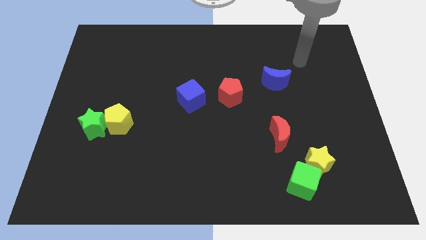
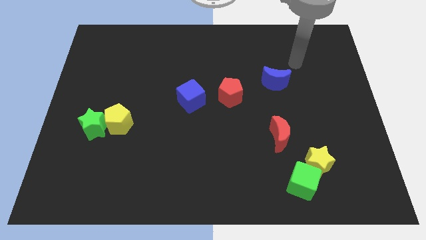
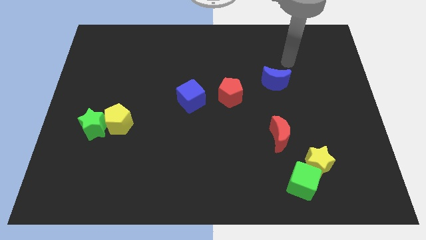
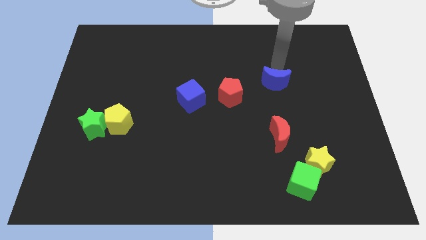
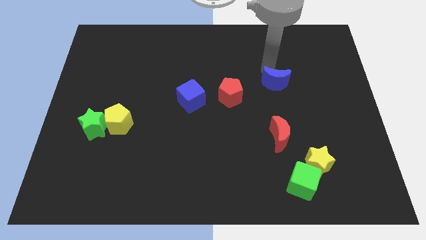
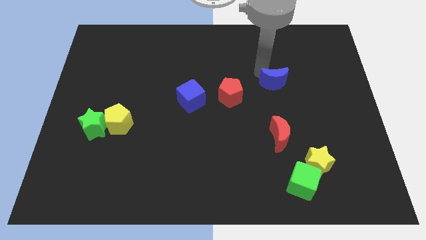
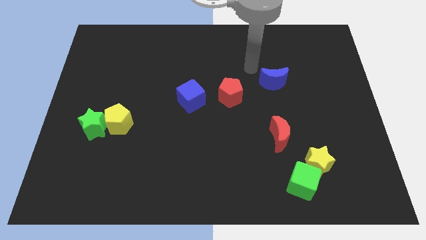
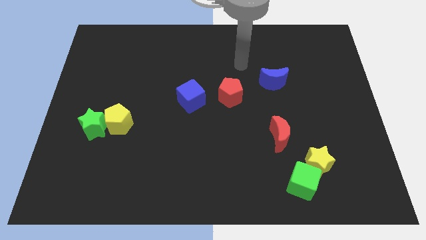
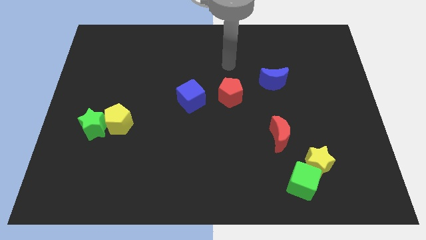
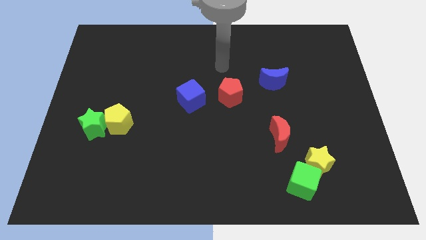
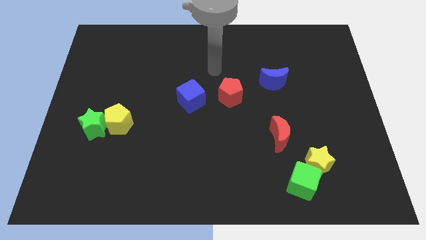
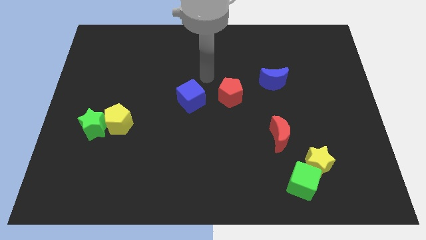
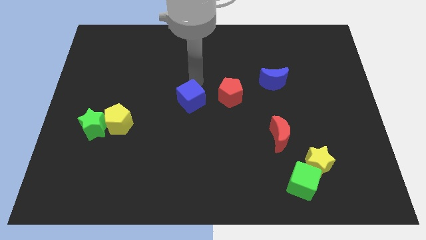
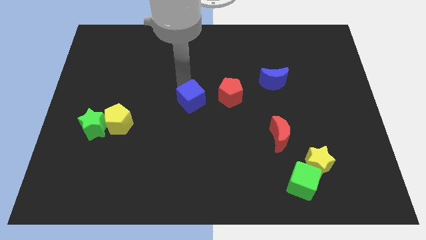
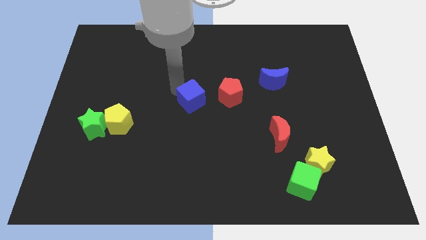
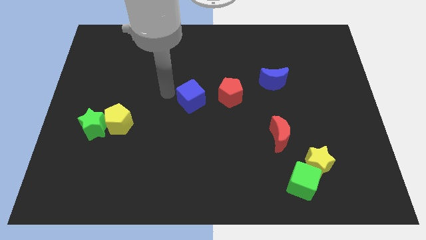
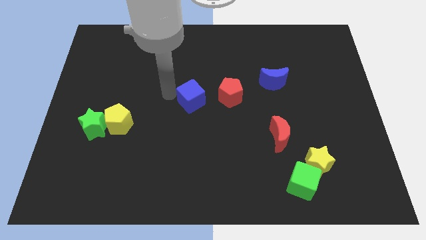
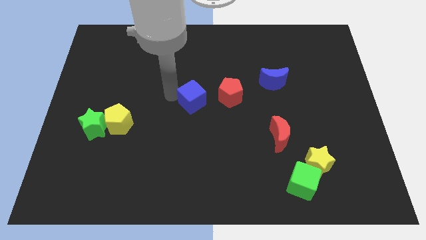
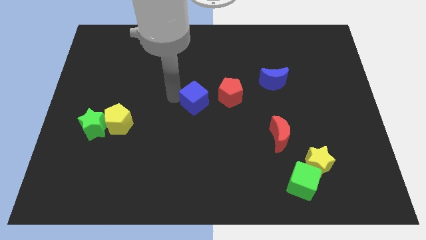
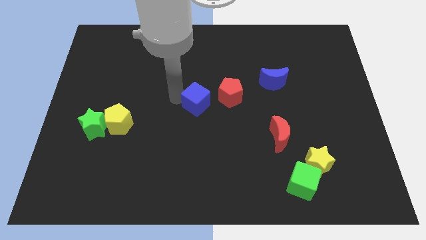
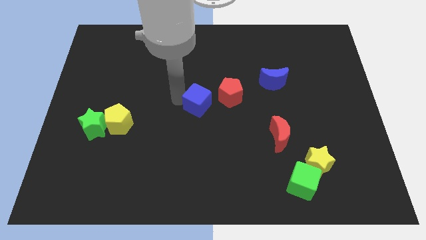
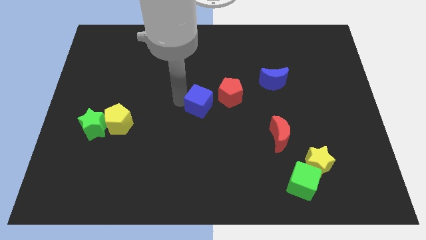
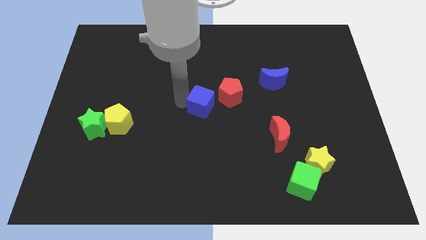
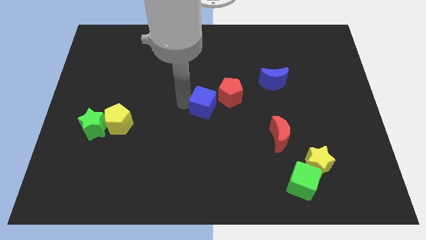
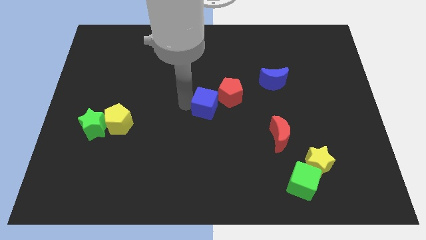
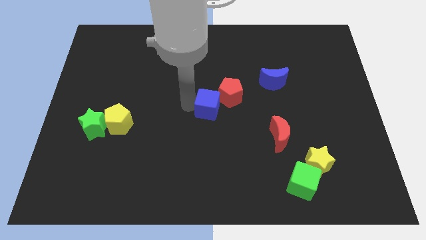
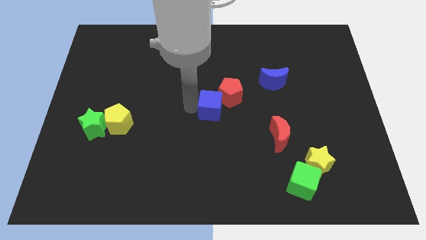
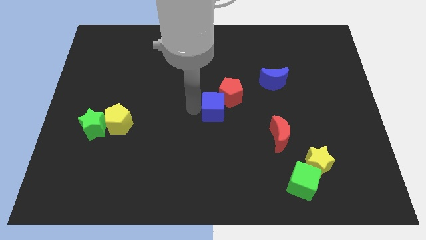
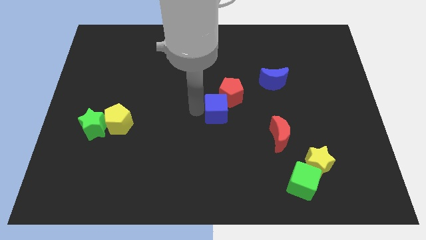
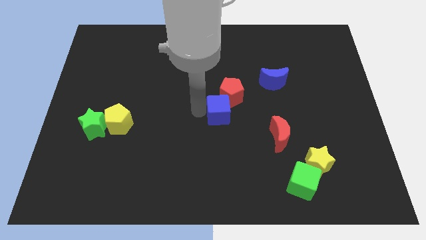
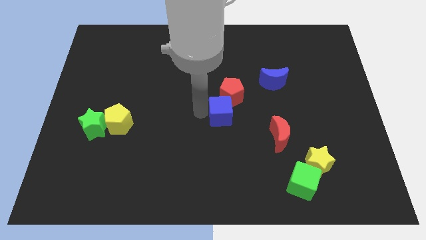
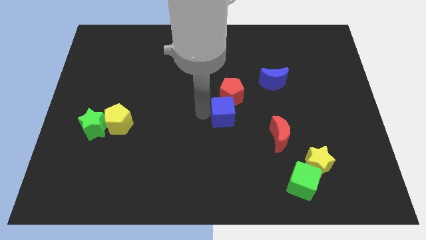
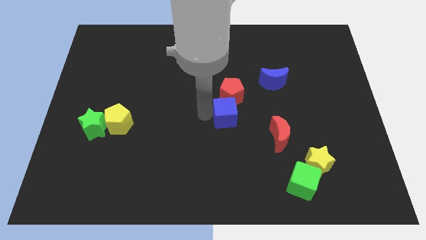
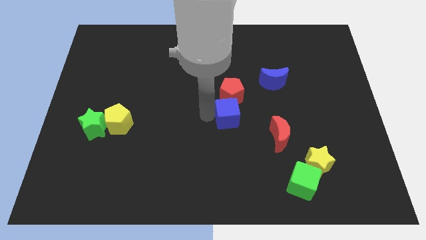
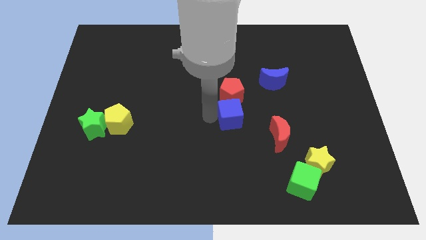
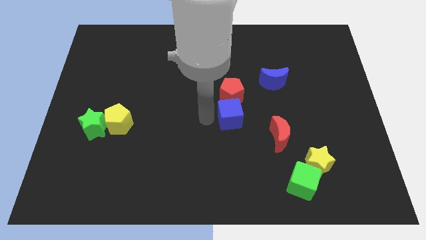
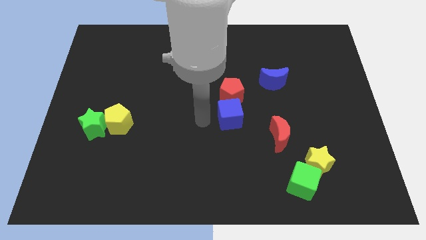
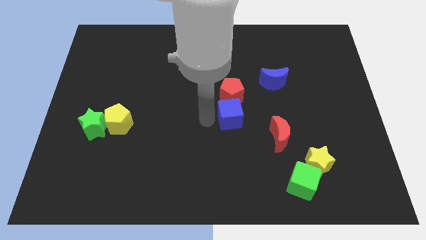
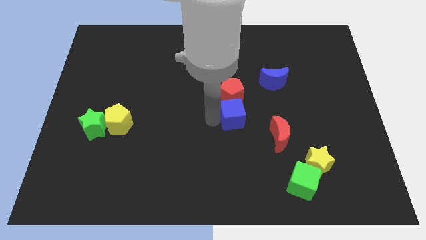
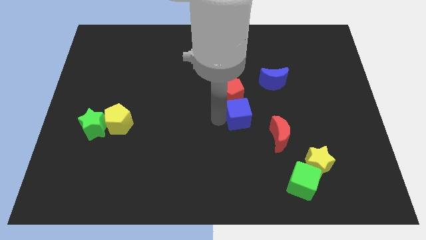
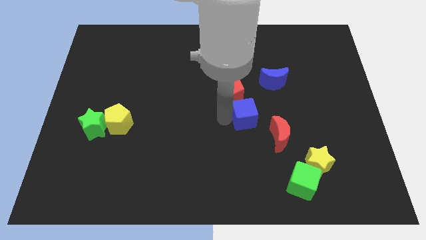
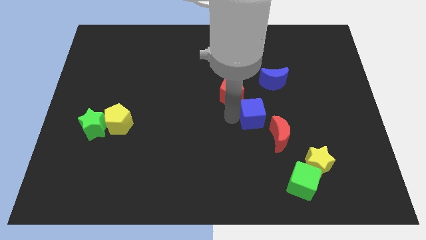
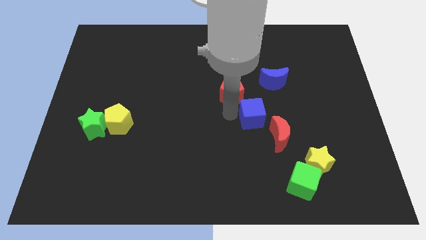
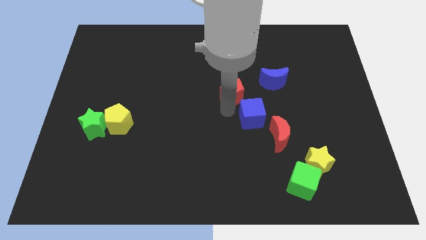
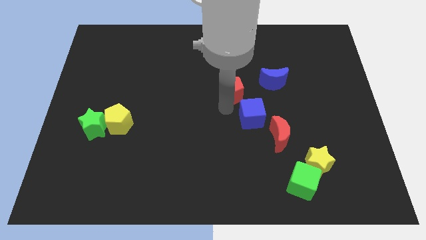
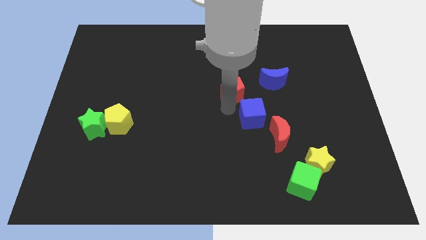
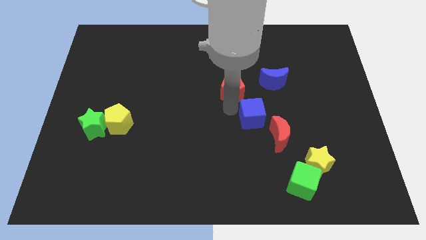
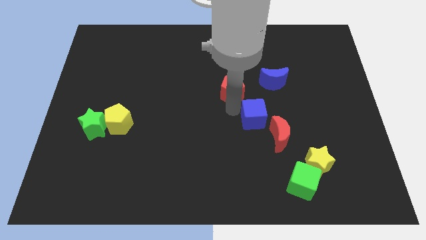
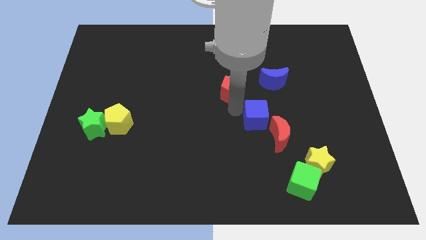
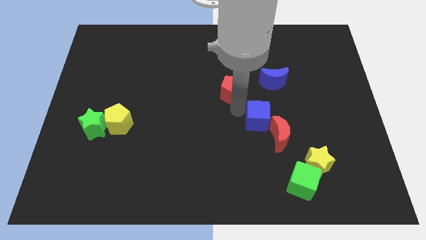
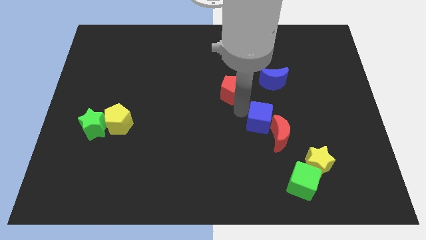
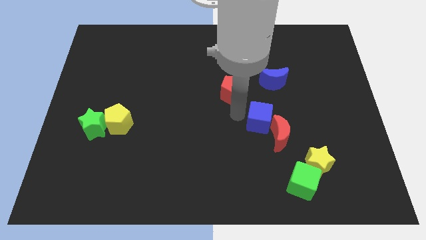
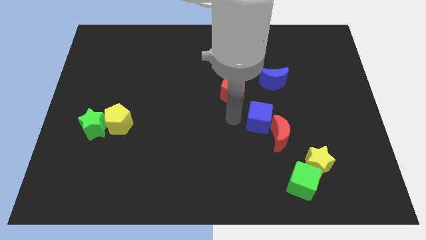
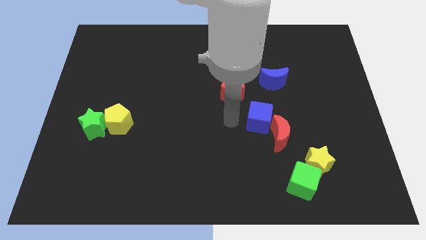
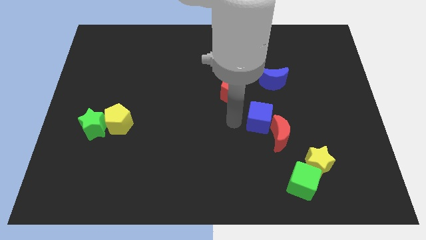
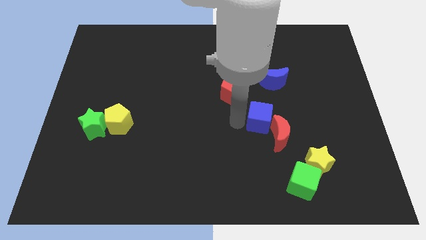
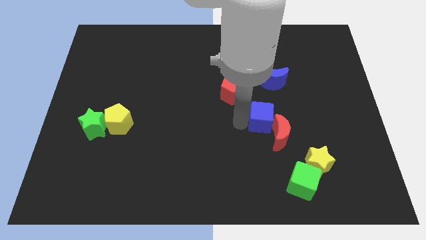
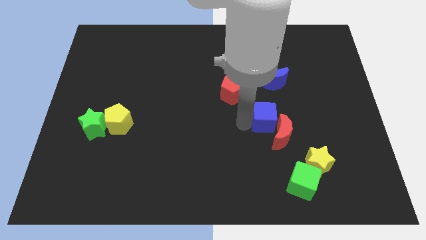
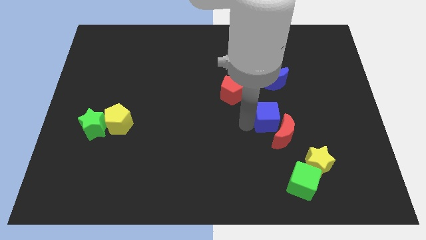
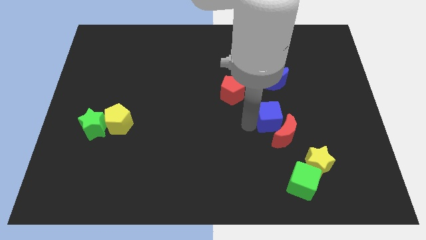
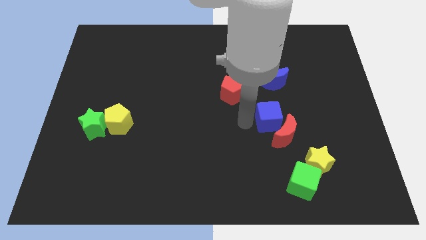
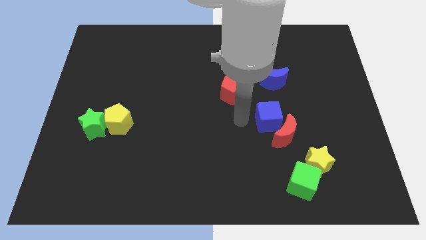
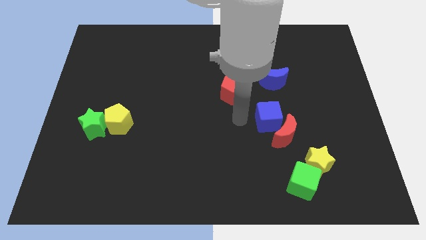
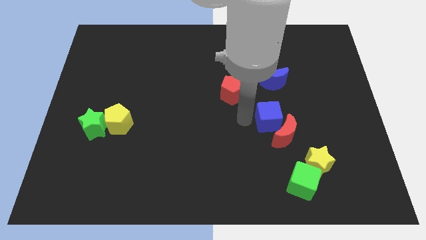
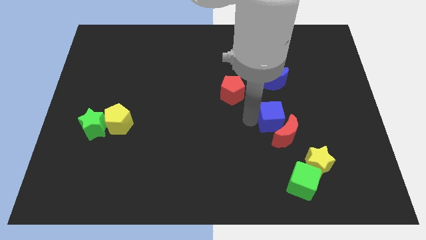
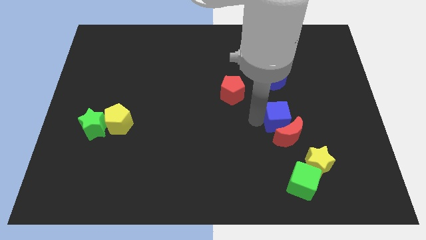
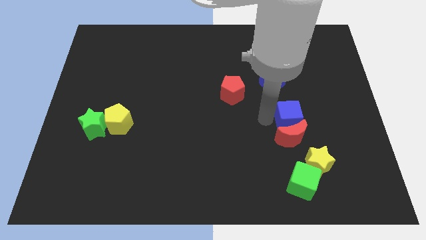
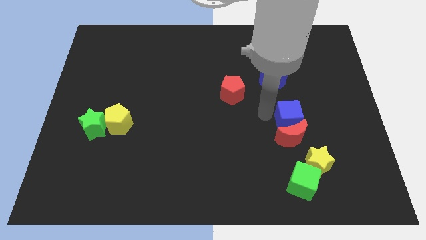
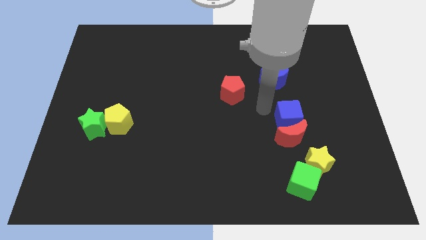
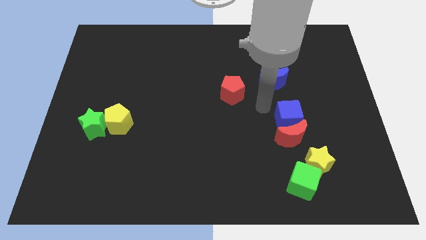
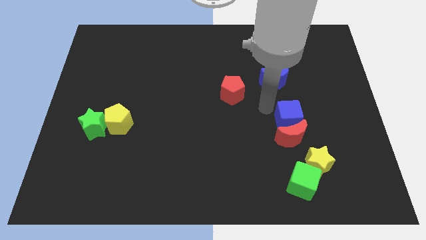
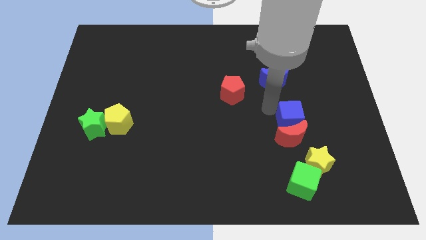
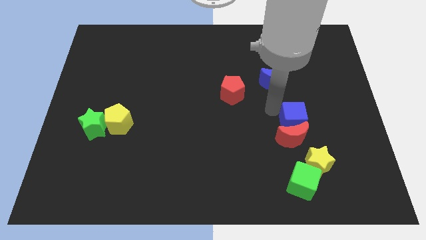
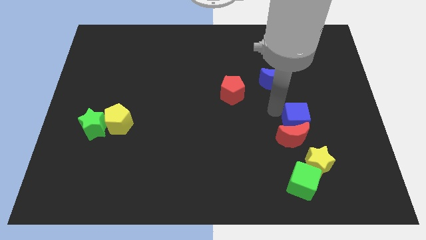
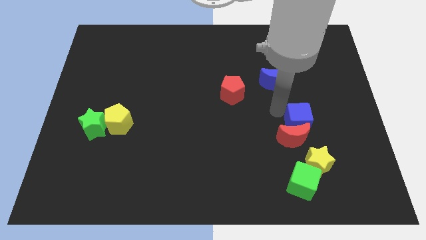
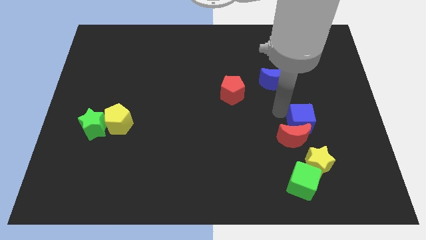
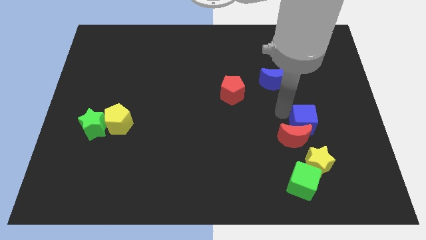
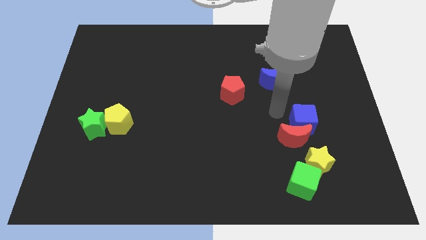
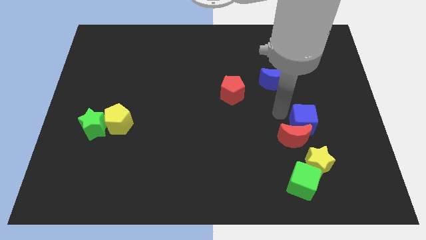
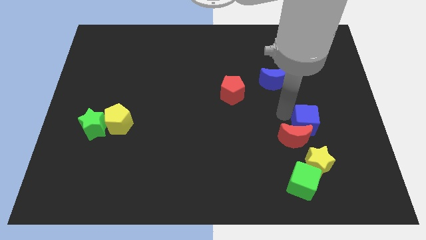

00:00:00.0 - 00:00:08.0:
move the blue cube to the right of the red moon

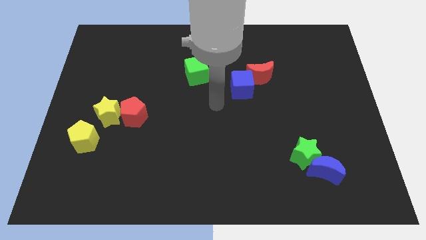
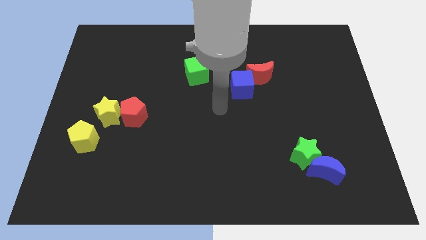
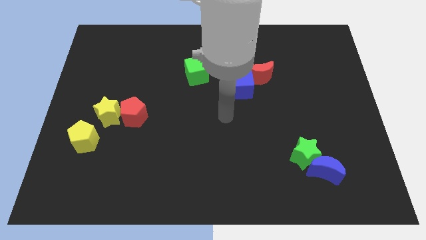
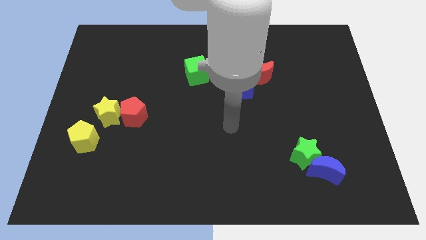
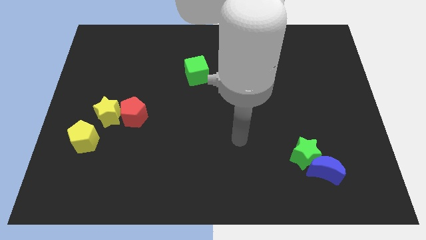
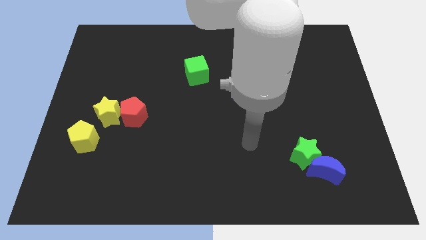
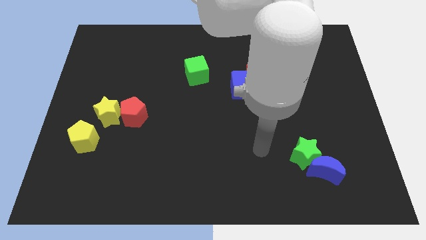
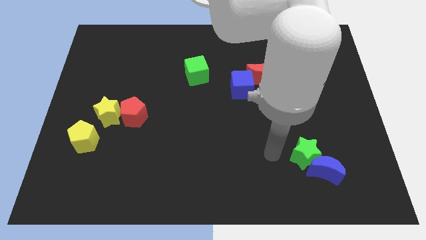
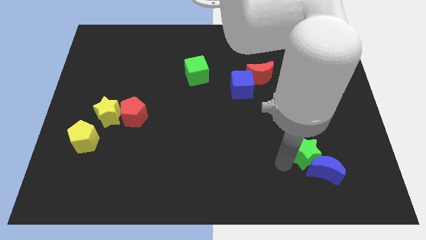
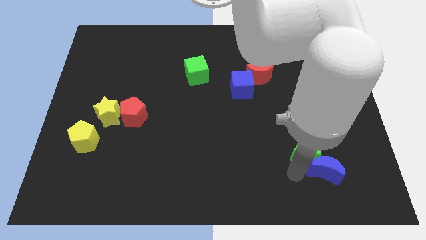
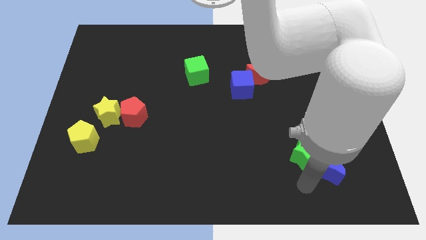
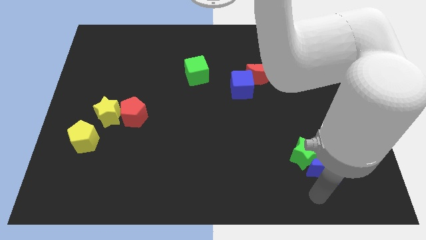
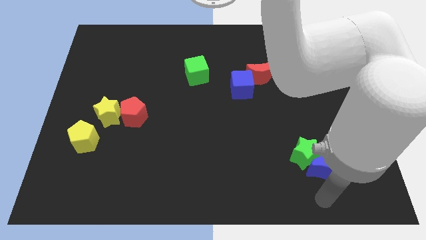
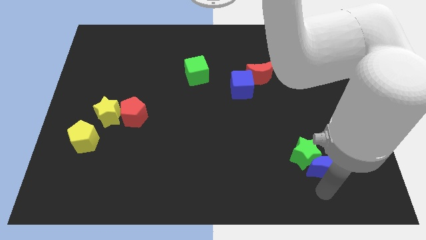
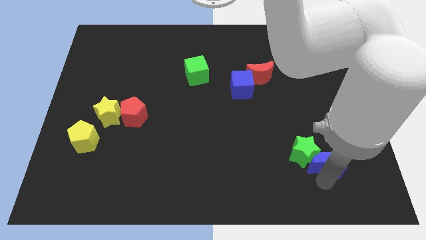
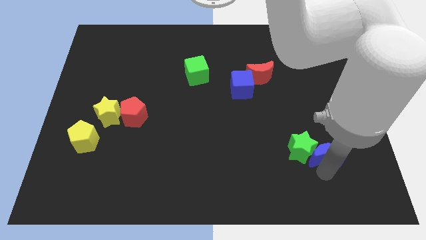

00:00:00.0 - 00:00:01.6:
slide the blue moon to the top right of the green star
